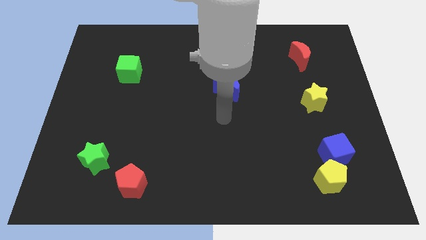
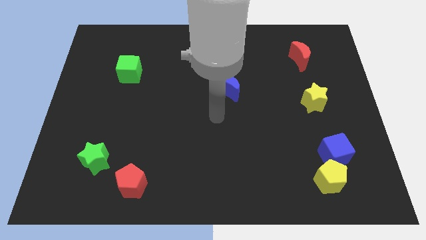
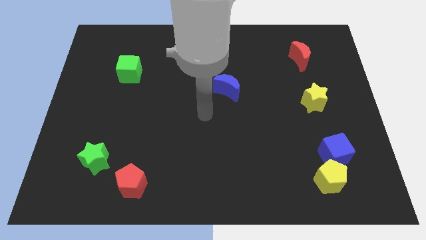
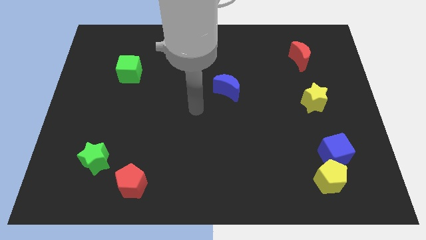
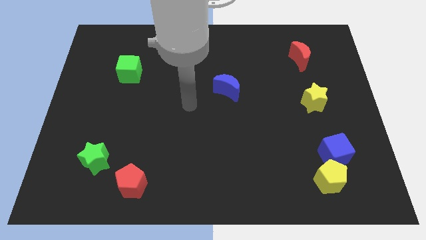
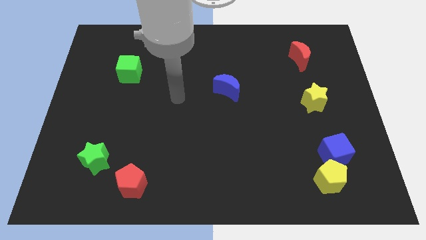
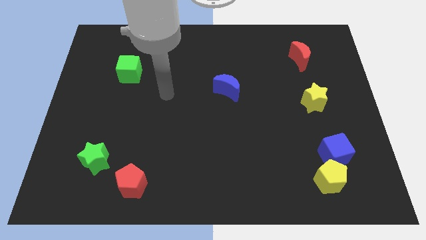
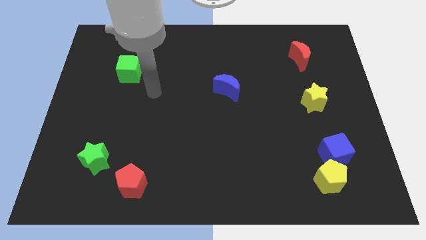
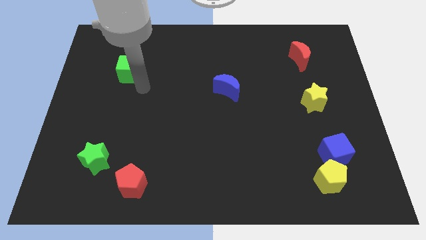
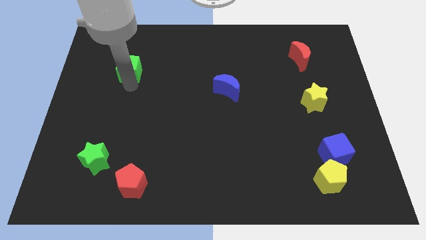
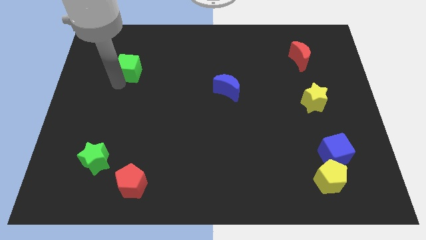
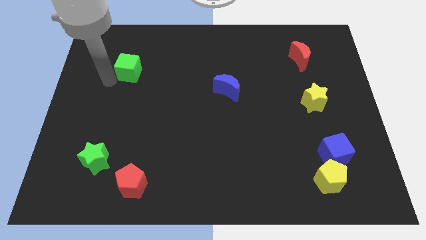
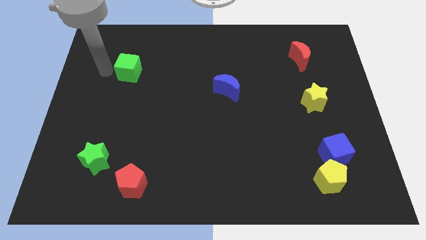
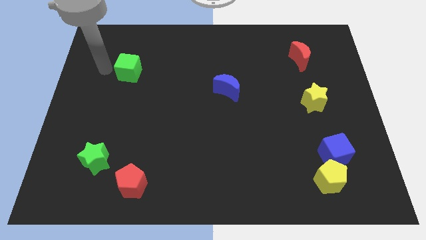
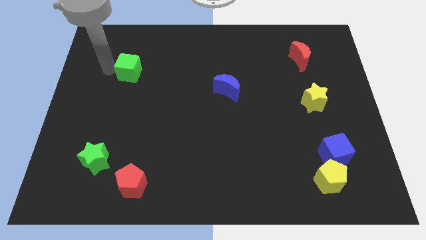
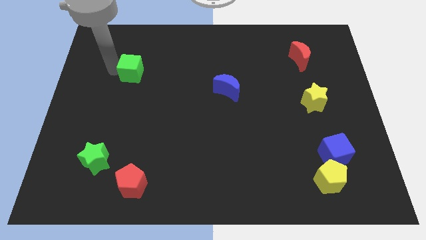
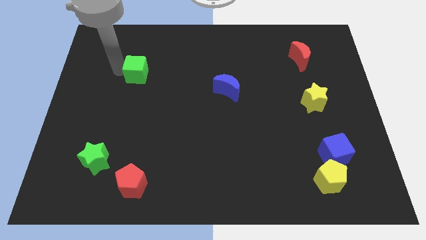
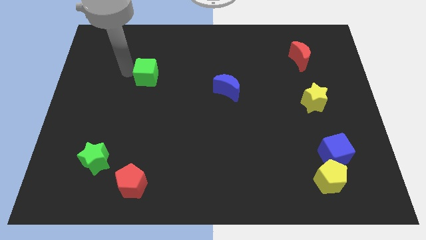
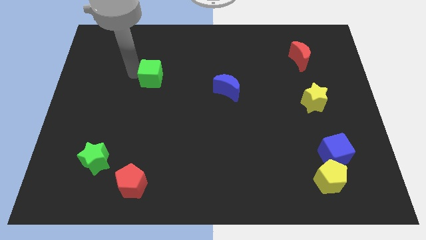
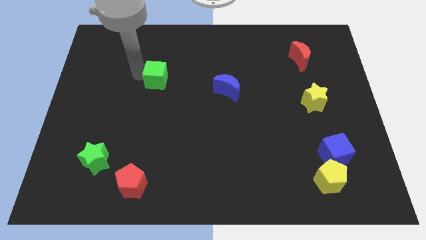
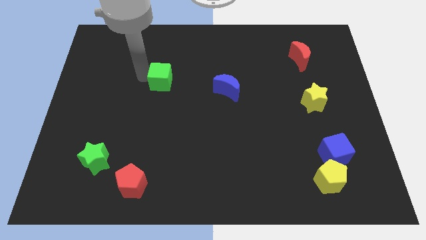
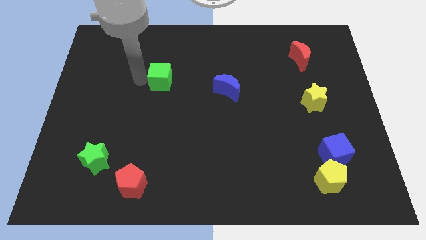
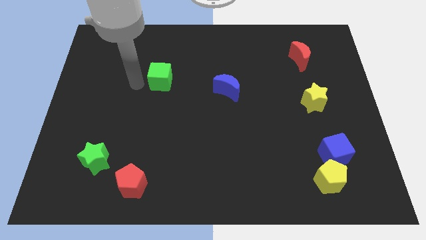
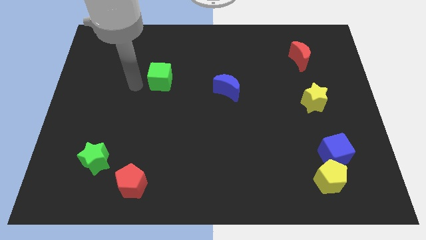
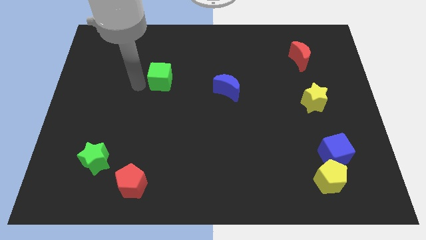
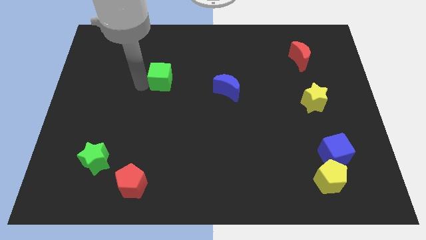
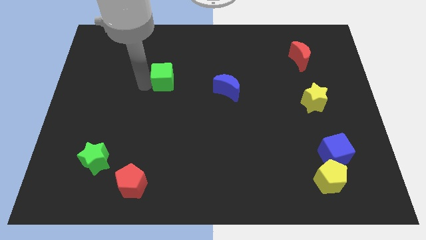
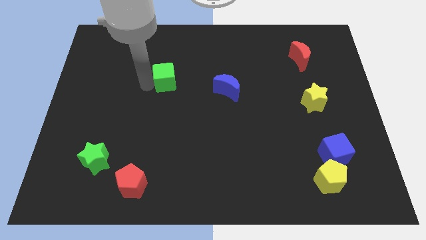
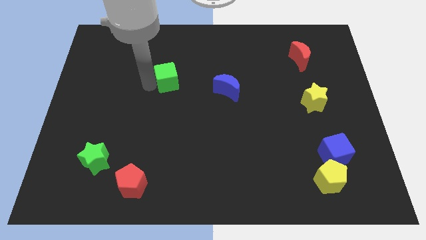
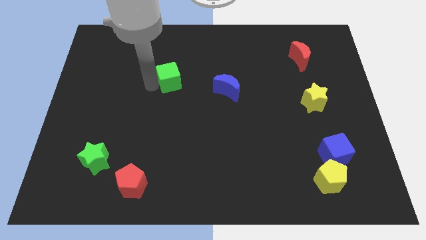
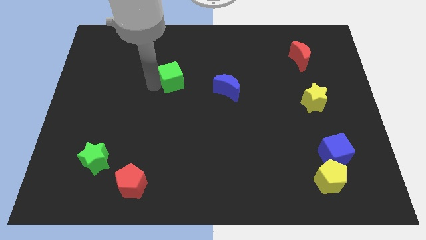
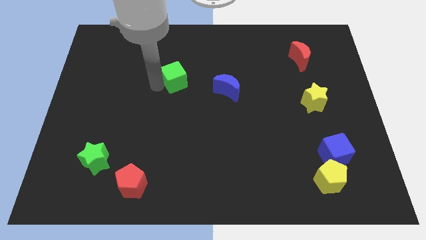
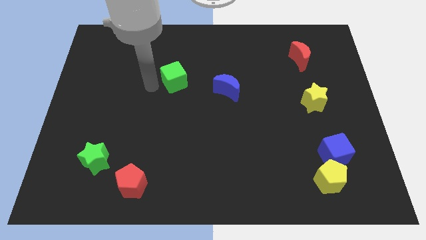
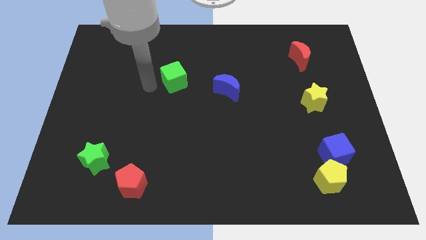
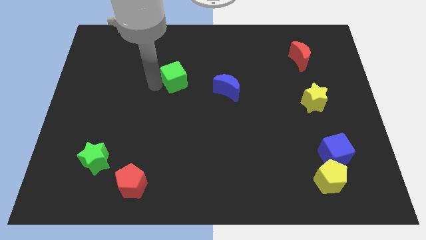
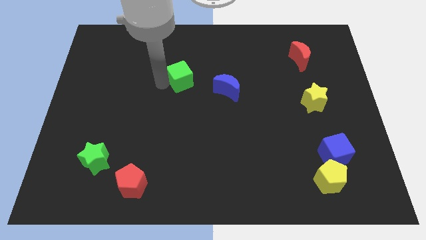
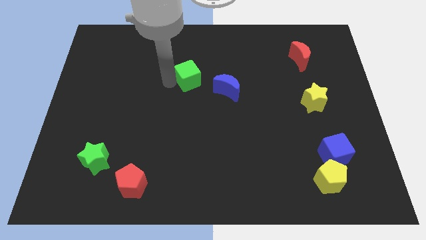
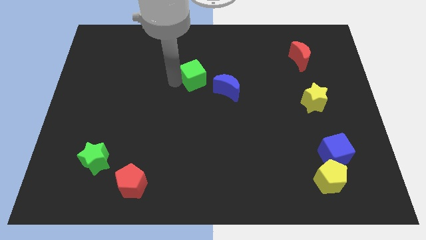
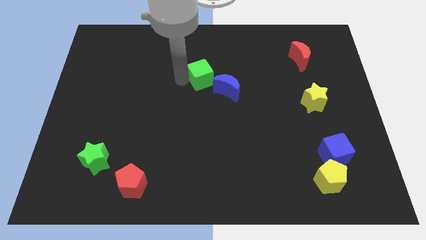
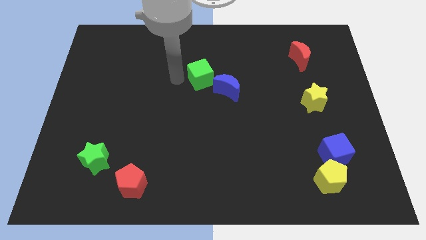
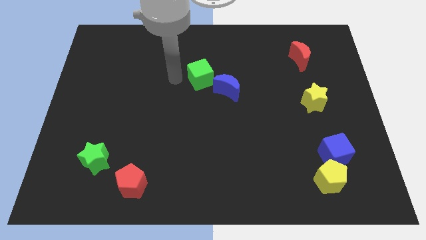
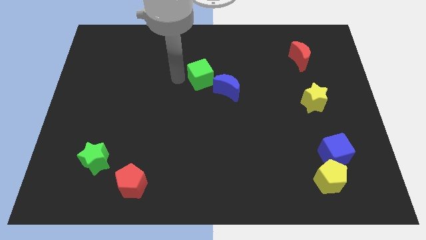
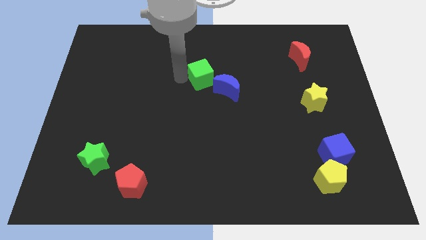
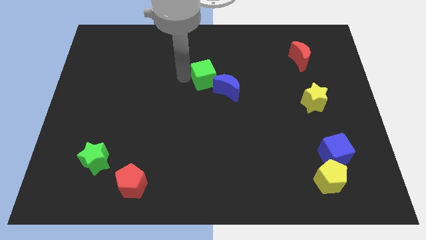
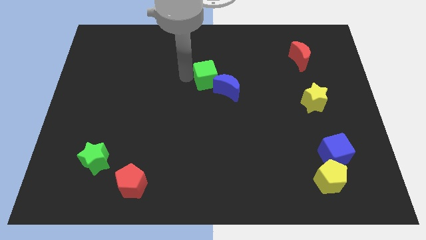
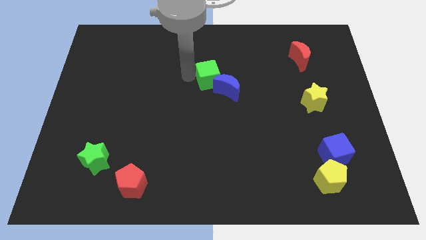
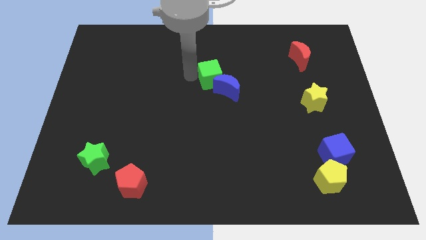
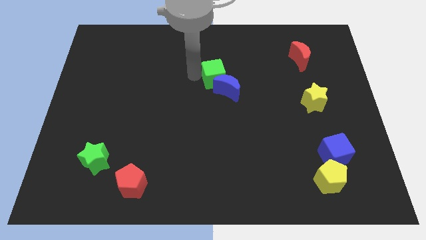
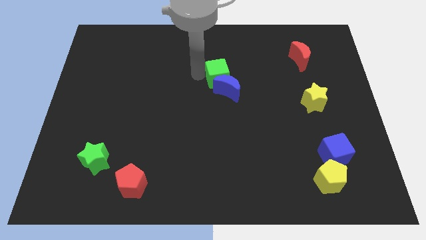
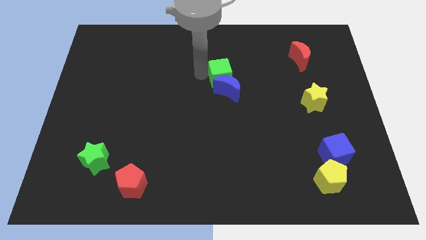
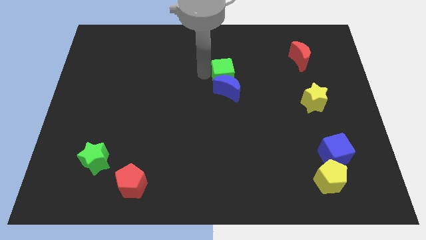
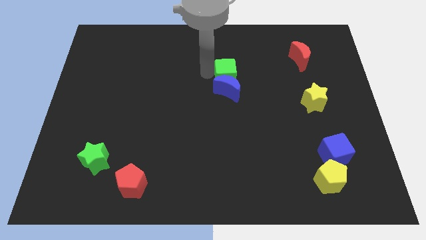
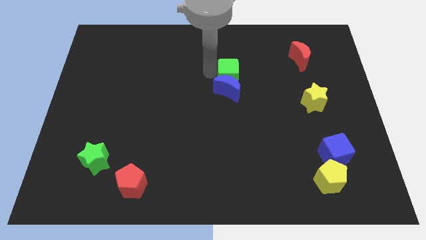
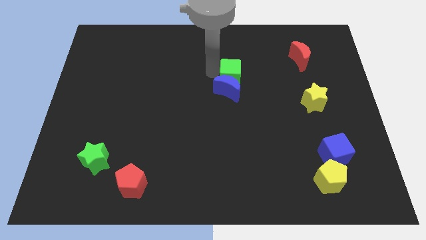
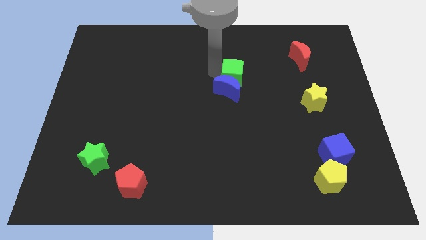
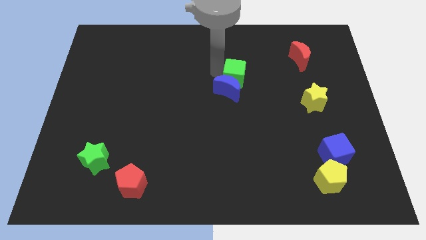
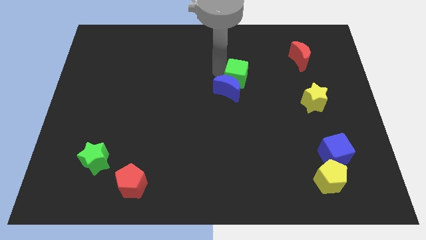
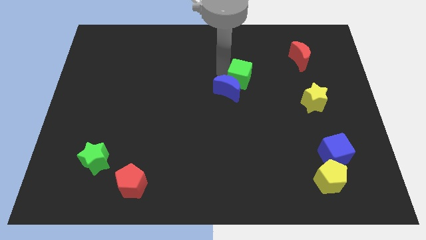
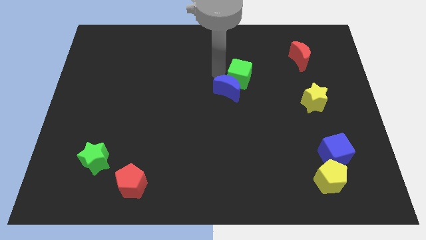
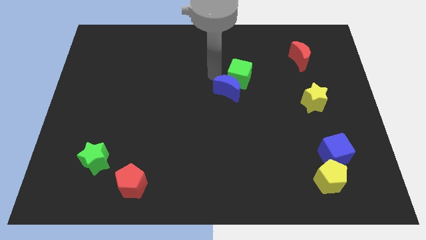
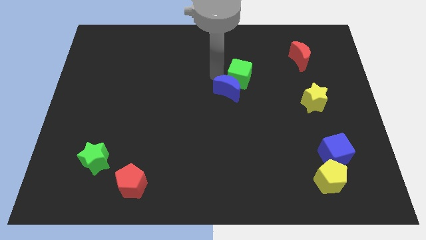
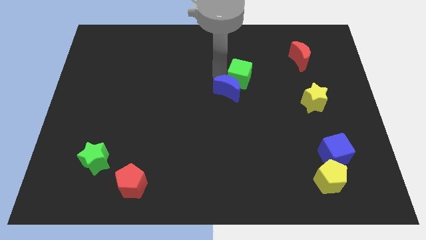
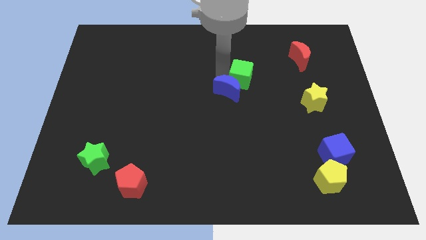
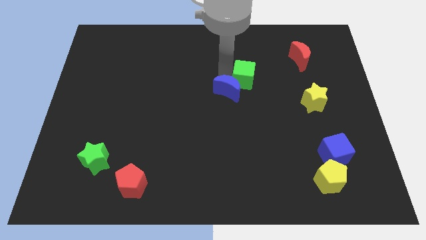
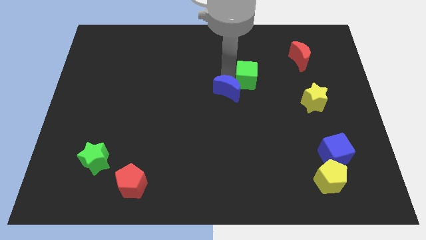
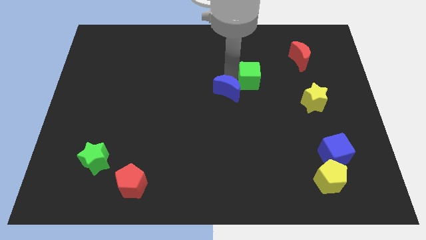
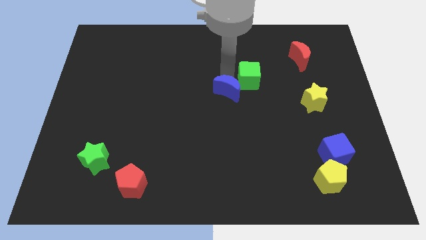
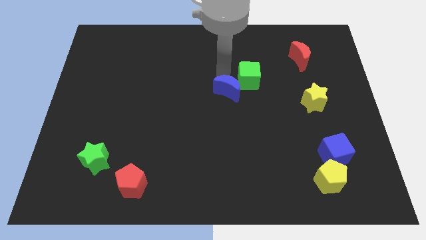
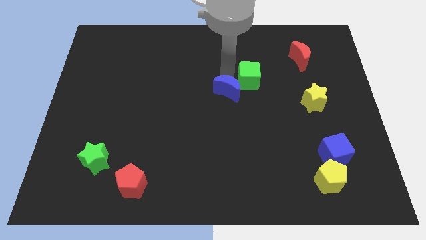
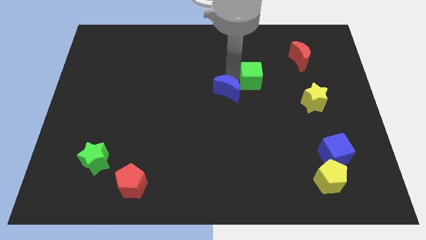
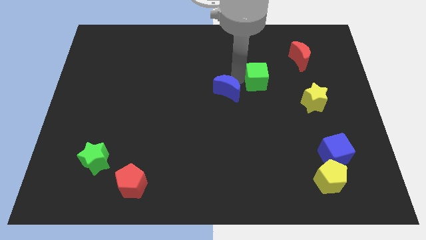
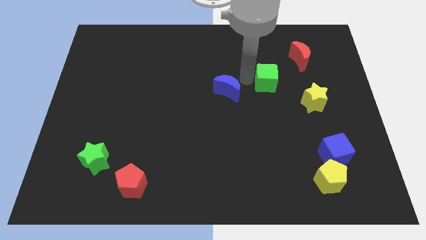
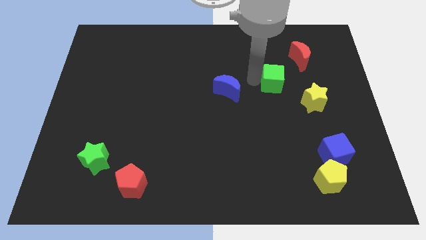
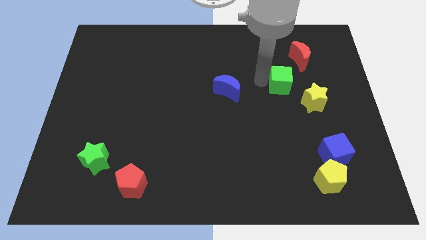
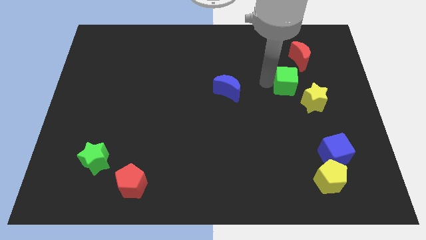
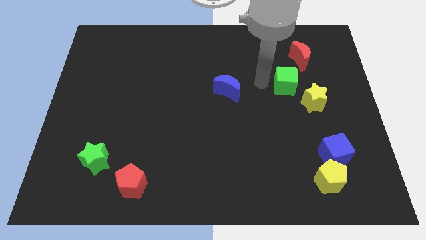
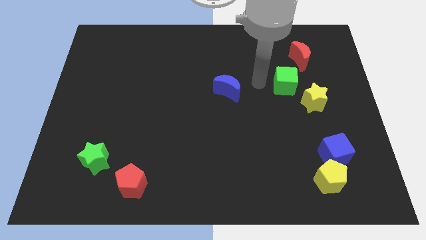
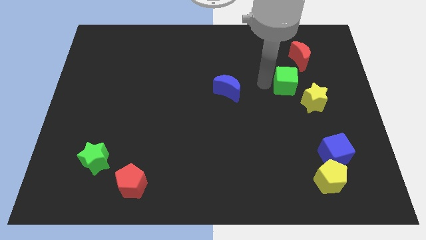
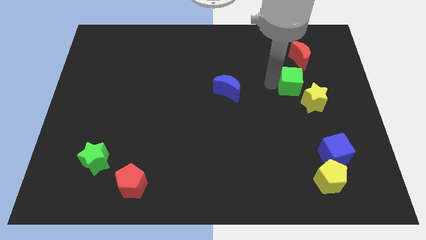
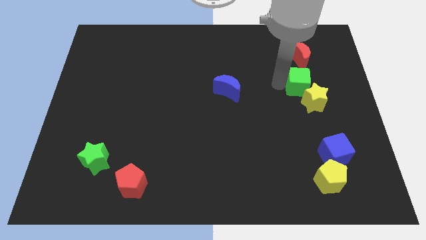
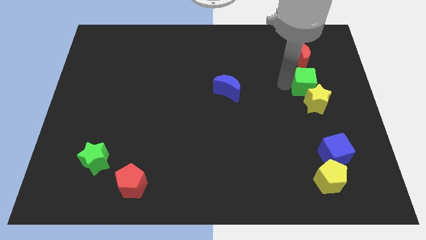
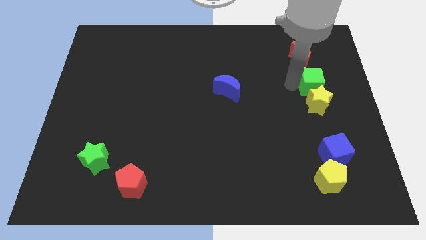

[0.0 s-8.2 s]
slide the green cube to the top right side of the yellow star
